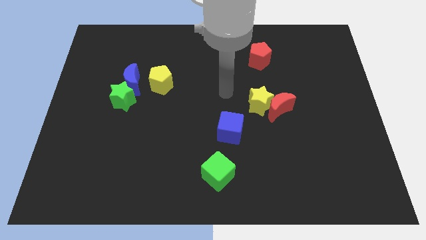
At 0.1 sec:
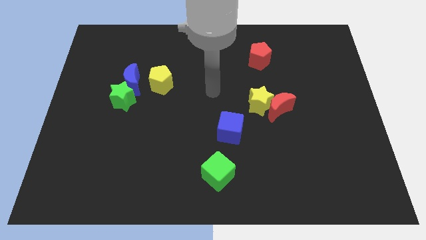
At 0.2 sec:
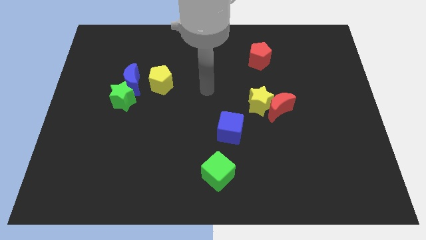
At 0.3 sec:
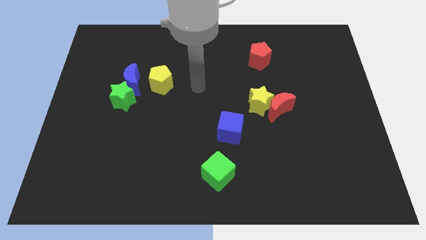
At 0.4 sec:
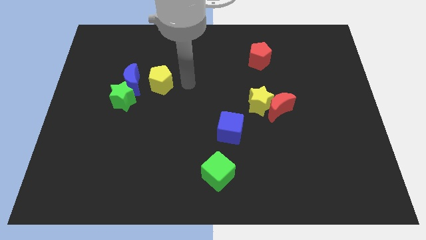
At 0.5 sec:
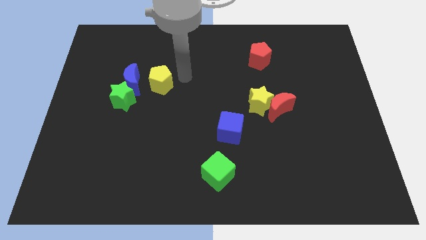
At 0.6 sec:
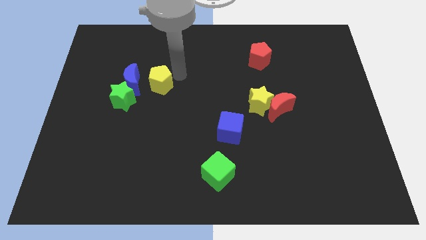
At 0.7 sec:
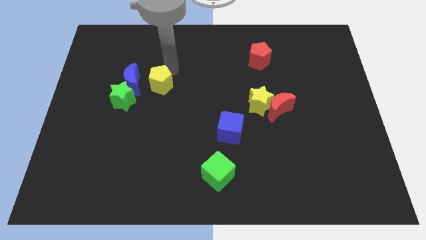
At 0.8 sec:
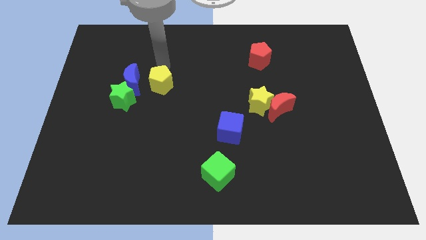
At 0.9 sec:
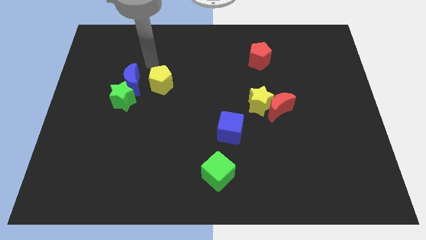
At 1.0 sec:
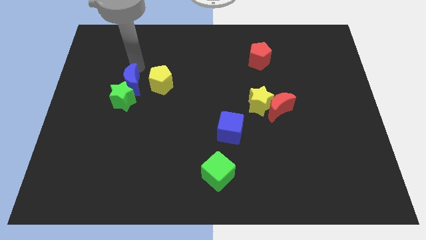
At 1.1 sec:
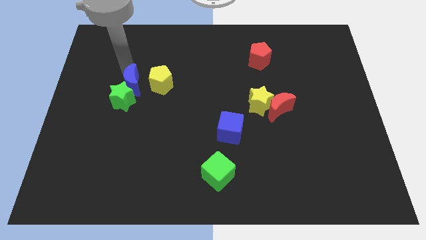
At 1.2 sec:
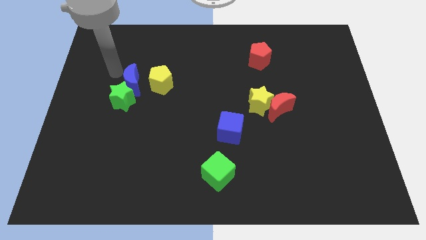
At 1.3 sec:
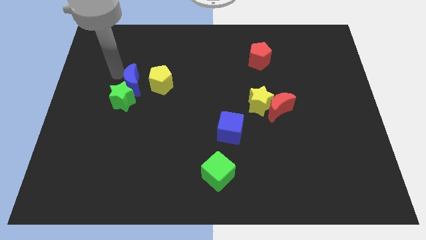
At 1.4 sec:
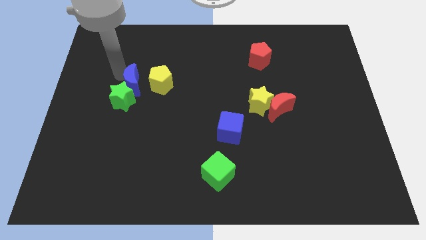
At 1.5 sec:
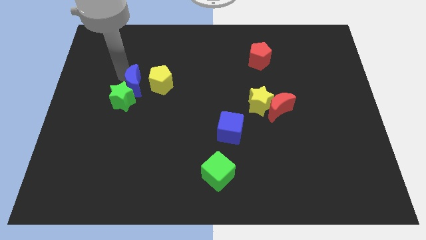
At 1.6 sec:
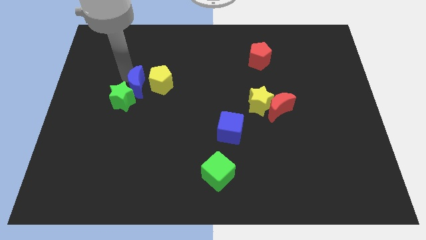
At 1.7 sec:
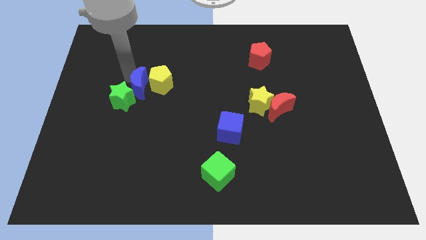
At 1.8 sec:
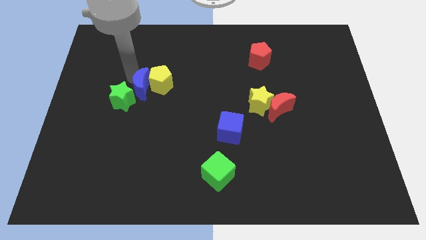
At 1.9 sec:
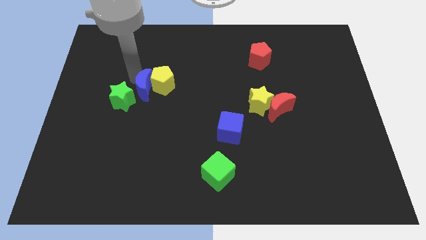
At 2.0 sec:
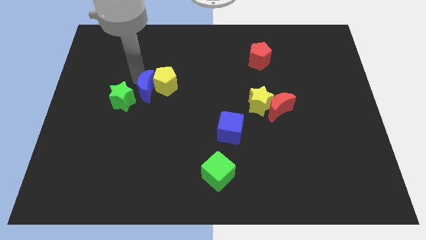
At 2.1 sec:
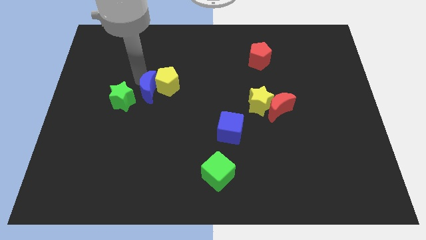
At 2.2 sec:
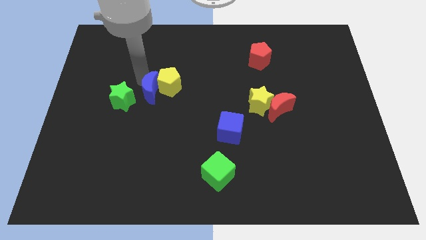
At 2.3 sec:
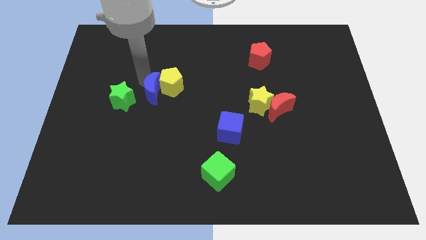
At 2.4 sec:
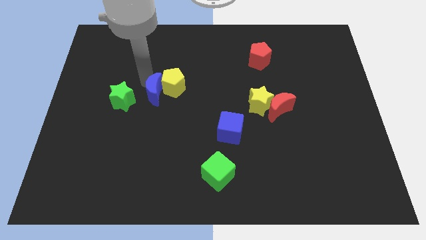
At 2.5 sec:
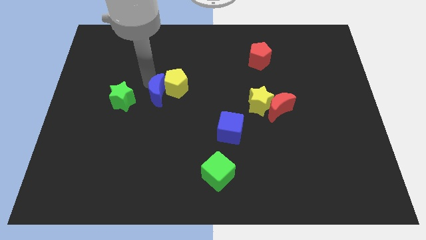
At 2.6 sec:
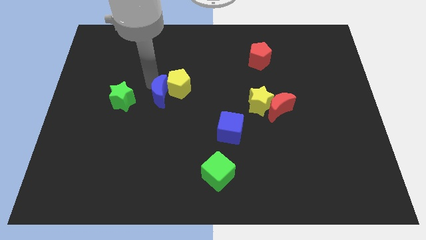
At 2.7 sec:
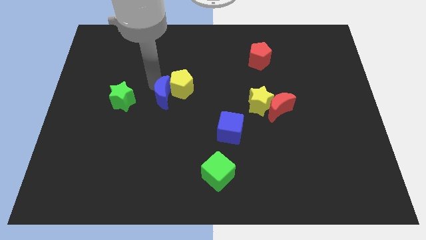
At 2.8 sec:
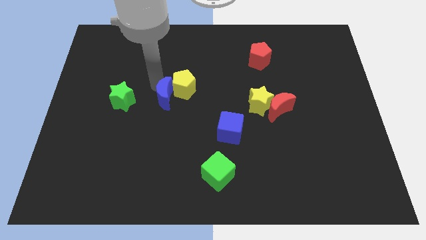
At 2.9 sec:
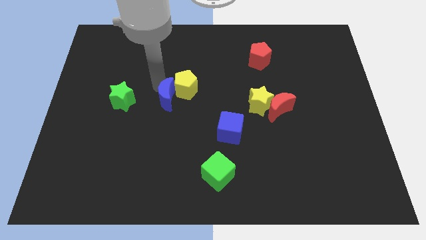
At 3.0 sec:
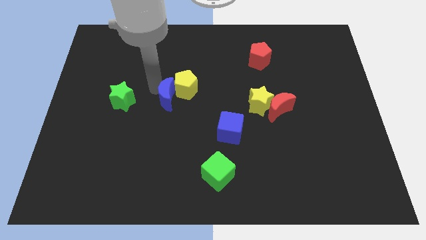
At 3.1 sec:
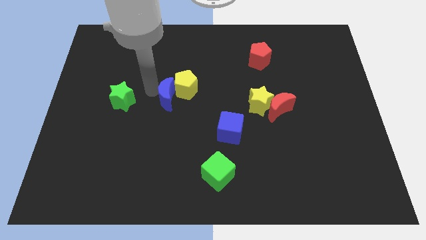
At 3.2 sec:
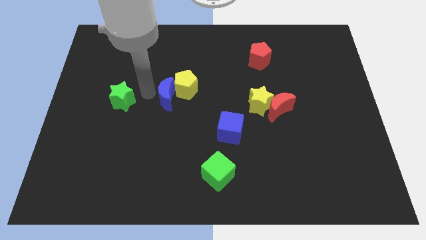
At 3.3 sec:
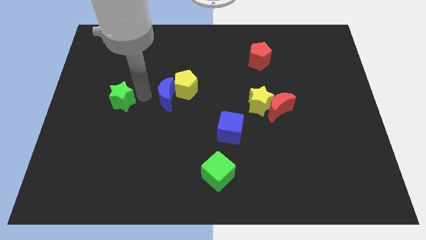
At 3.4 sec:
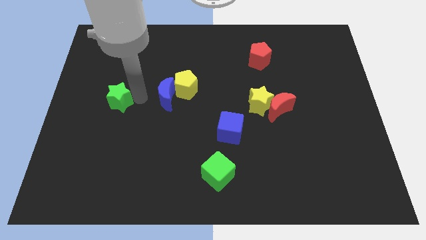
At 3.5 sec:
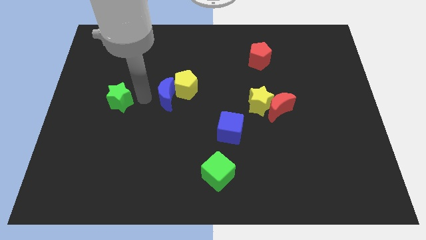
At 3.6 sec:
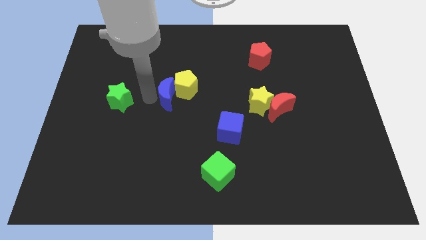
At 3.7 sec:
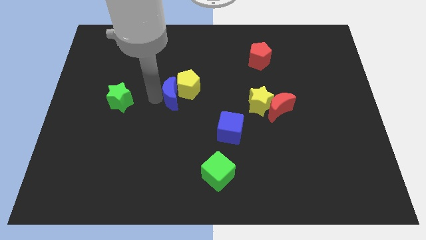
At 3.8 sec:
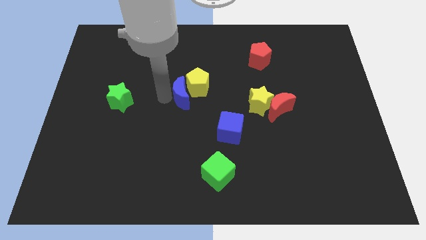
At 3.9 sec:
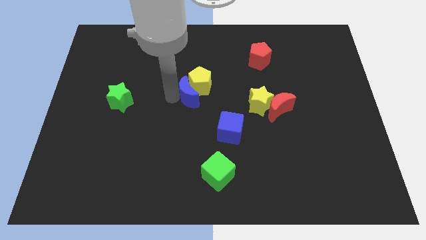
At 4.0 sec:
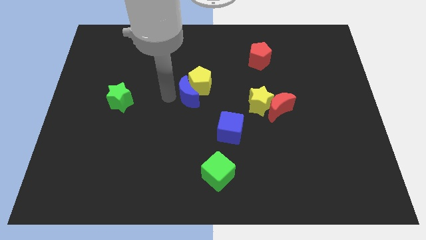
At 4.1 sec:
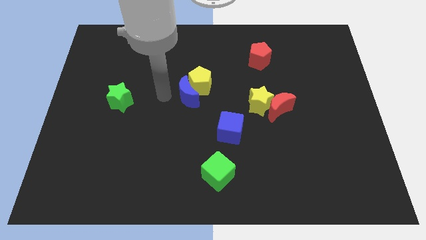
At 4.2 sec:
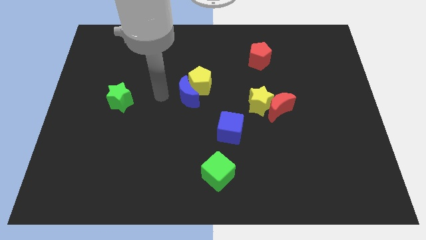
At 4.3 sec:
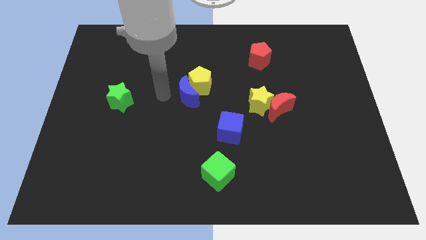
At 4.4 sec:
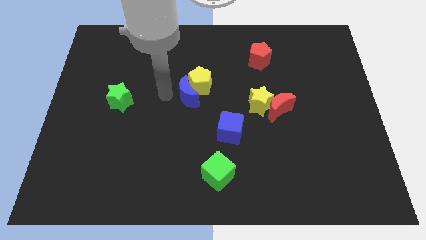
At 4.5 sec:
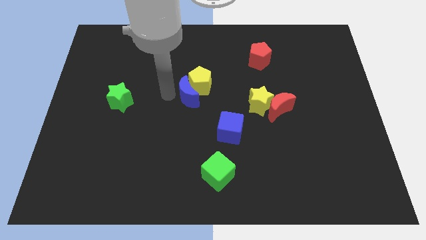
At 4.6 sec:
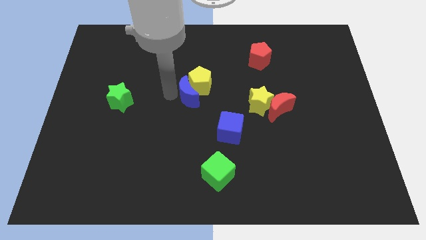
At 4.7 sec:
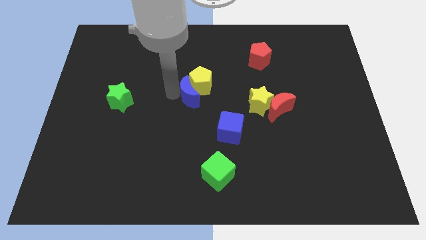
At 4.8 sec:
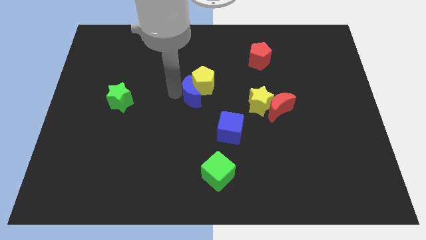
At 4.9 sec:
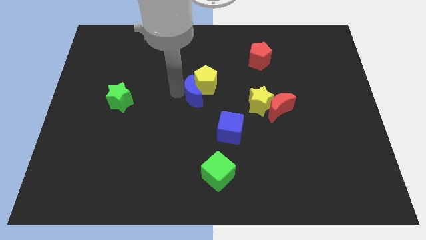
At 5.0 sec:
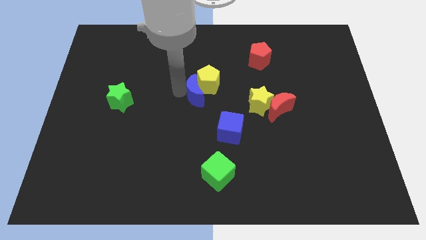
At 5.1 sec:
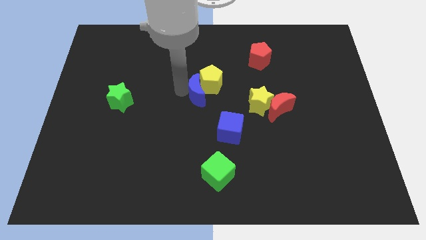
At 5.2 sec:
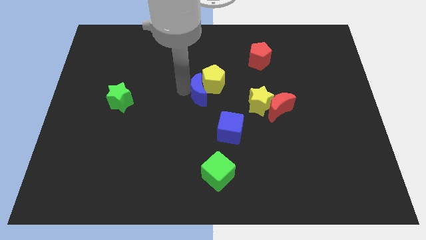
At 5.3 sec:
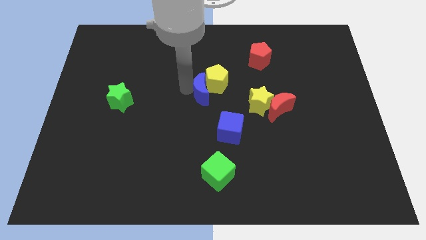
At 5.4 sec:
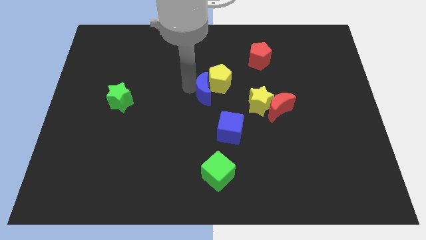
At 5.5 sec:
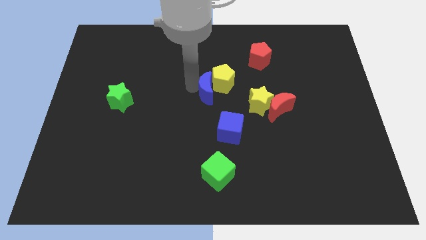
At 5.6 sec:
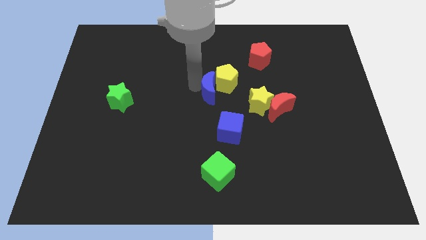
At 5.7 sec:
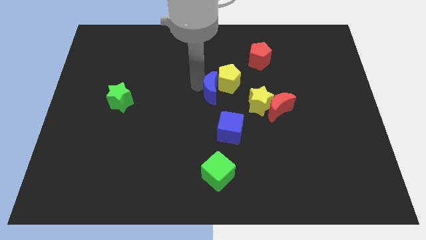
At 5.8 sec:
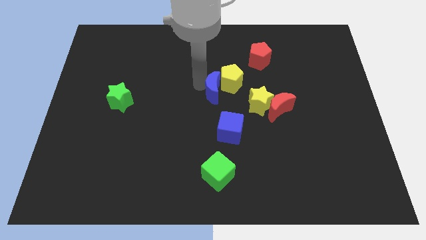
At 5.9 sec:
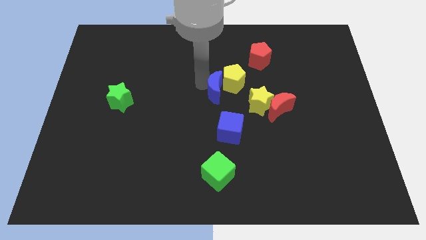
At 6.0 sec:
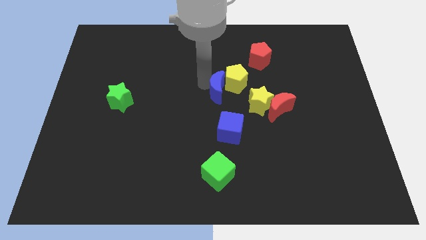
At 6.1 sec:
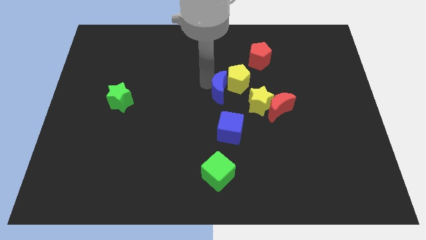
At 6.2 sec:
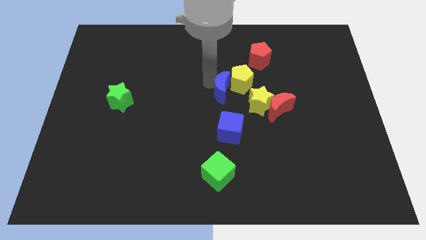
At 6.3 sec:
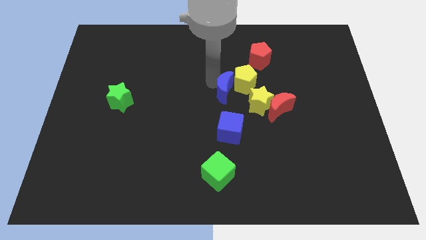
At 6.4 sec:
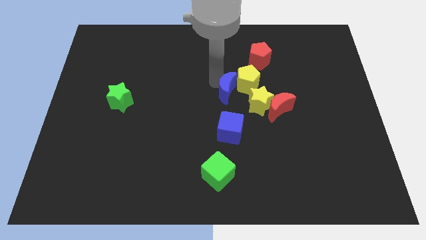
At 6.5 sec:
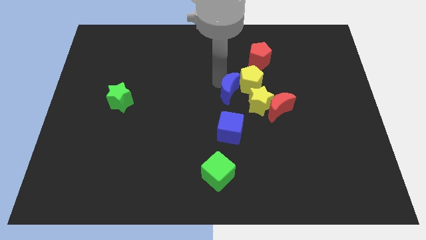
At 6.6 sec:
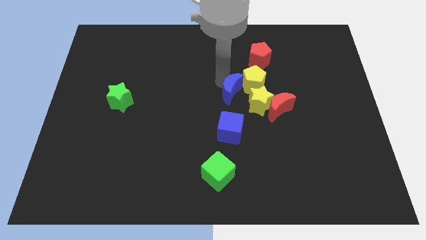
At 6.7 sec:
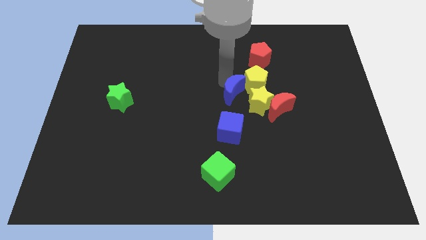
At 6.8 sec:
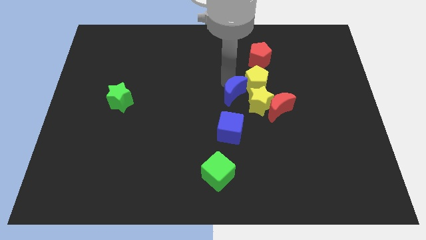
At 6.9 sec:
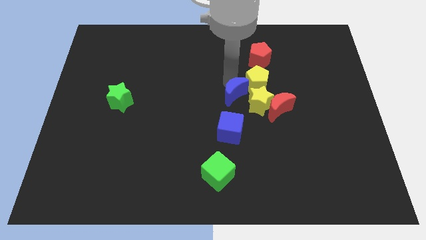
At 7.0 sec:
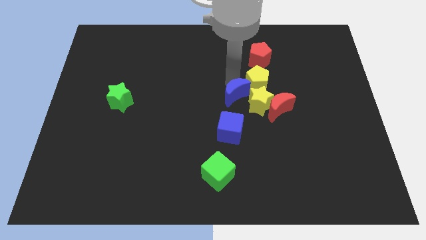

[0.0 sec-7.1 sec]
put the blue moon close to the yellow star

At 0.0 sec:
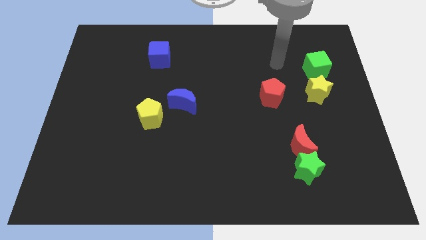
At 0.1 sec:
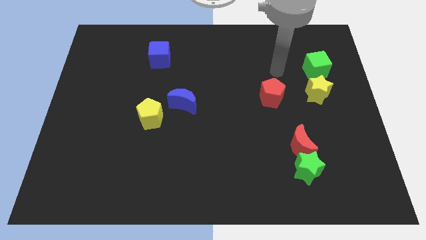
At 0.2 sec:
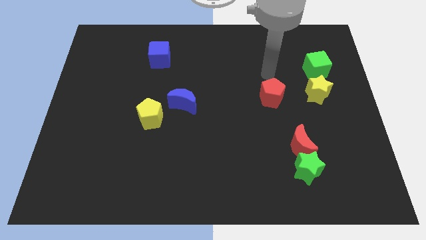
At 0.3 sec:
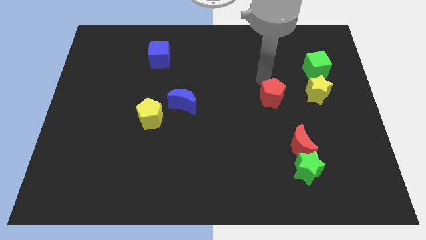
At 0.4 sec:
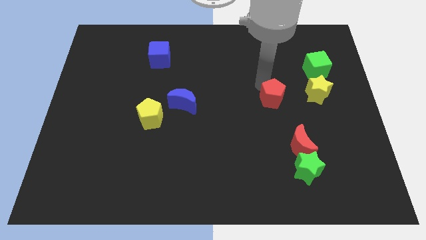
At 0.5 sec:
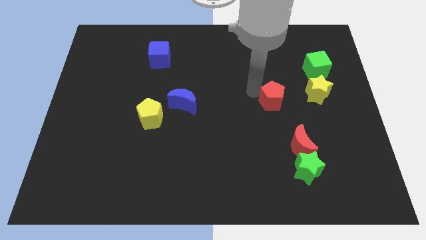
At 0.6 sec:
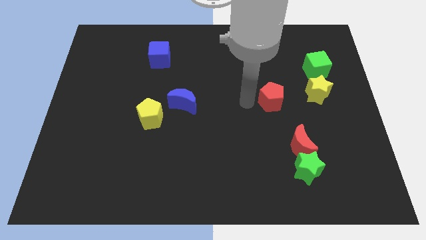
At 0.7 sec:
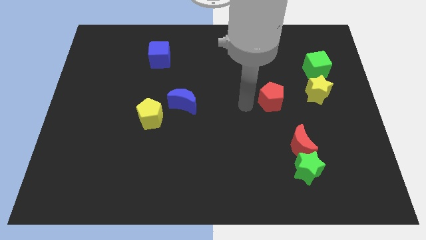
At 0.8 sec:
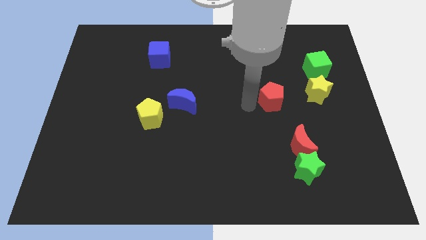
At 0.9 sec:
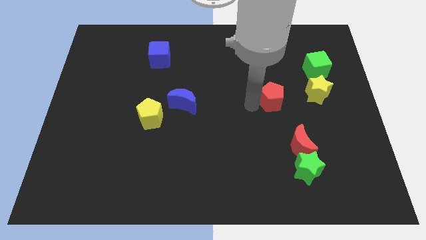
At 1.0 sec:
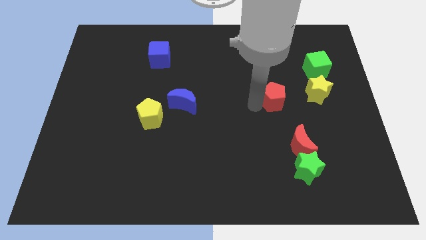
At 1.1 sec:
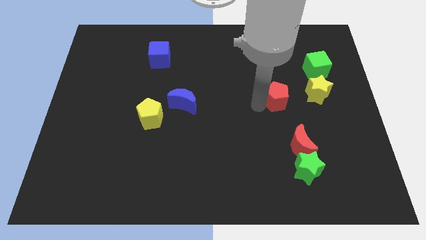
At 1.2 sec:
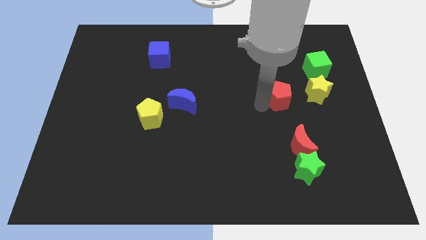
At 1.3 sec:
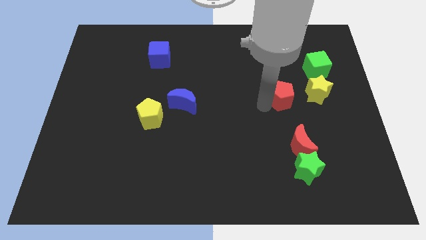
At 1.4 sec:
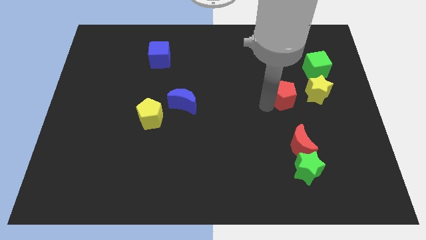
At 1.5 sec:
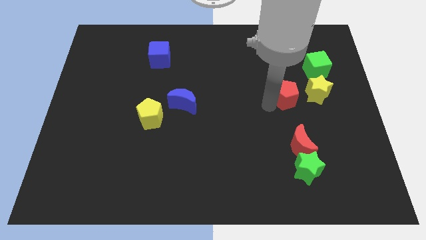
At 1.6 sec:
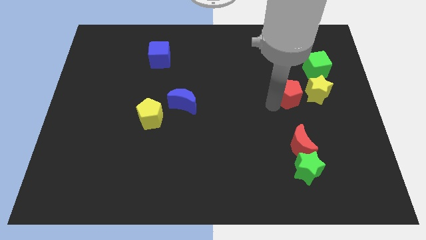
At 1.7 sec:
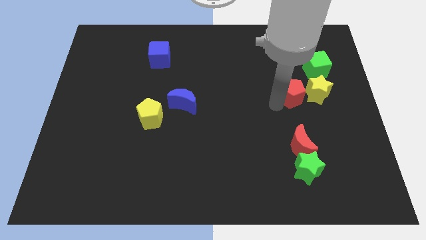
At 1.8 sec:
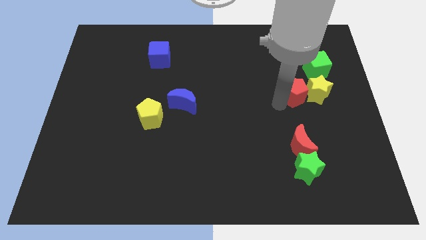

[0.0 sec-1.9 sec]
put the red pentagon towards the yellow star
